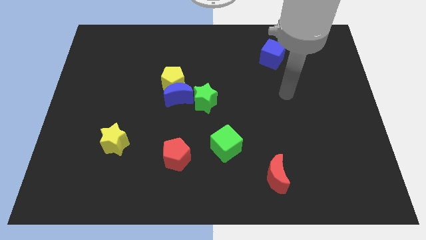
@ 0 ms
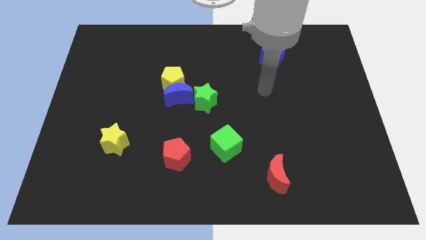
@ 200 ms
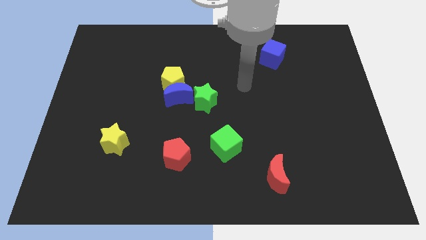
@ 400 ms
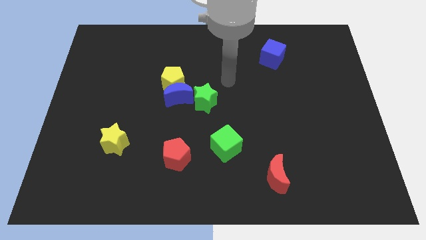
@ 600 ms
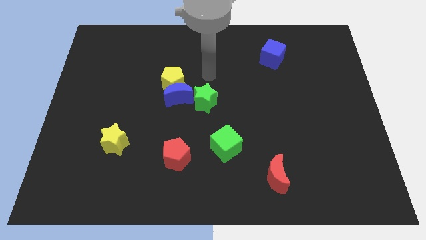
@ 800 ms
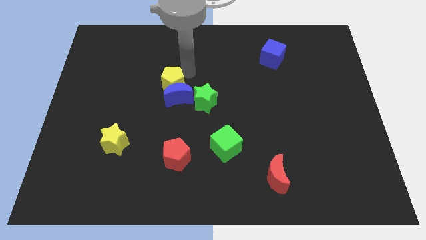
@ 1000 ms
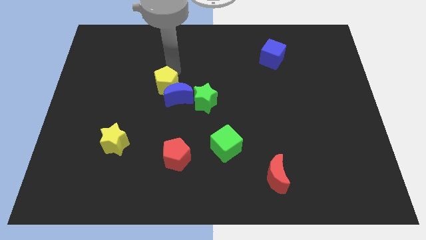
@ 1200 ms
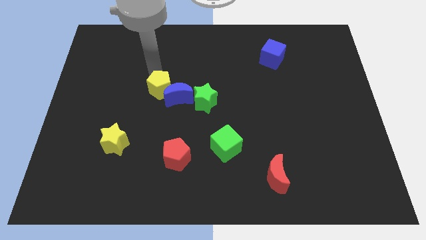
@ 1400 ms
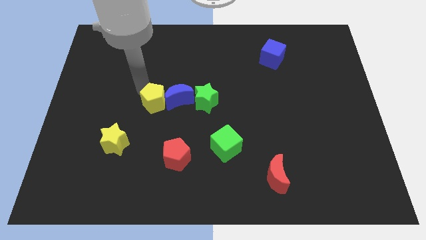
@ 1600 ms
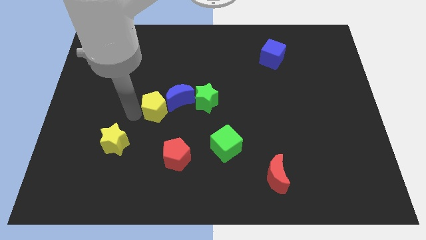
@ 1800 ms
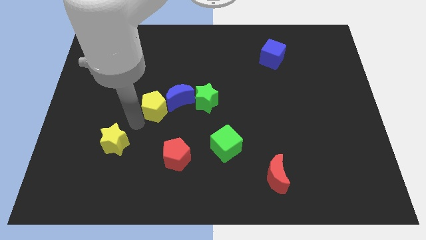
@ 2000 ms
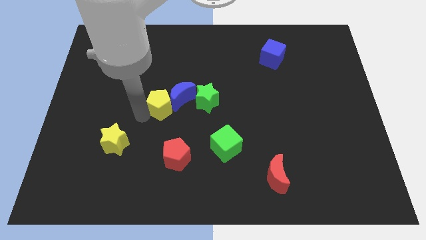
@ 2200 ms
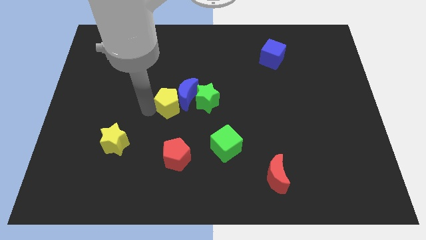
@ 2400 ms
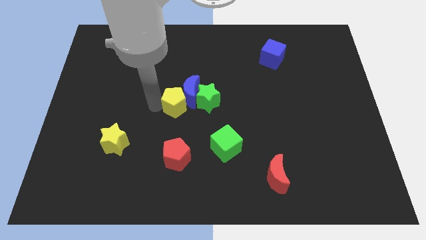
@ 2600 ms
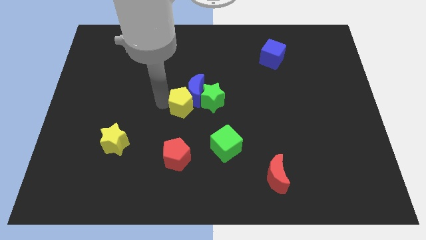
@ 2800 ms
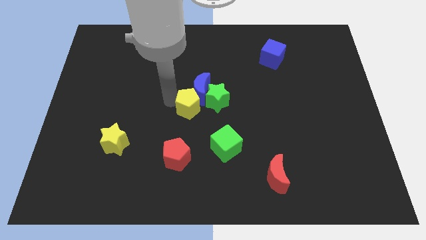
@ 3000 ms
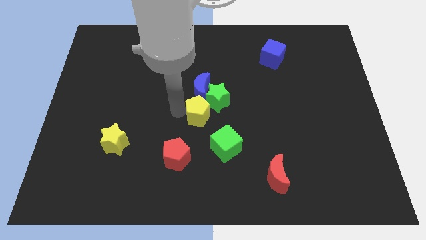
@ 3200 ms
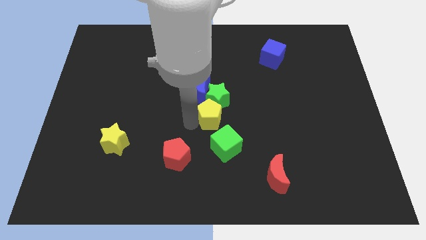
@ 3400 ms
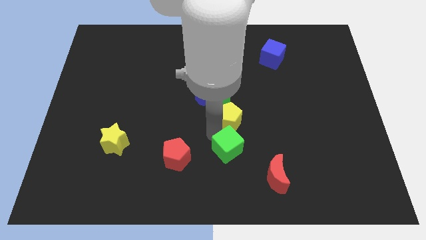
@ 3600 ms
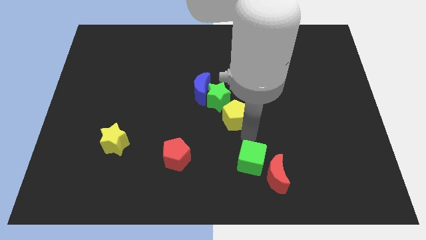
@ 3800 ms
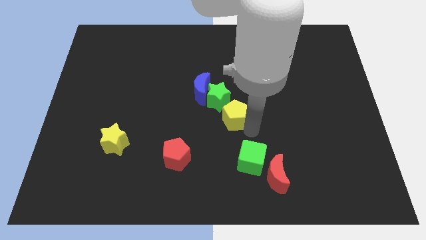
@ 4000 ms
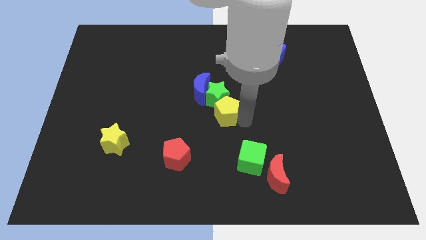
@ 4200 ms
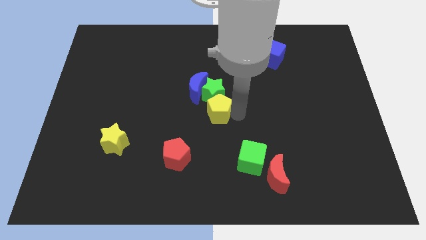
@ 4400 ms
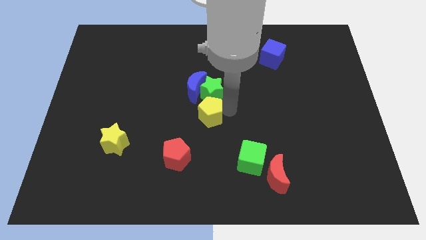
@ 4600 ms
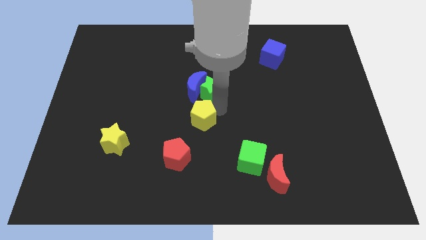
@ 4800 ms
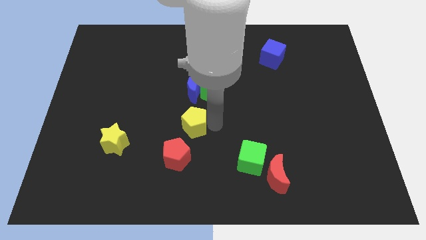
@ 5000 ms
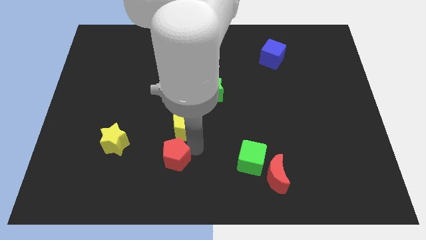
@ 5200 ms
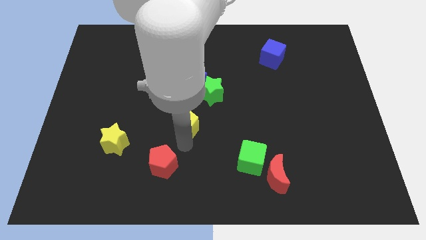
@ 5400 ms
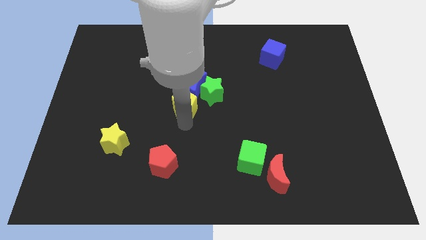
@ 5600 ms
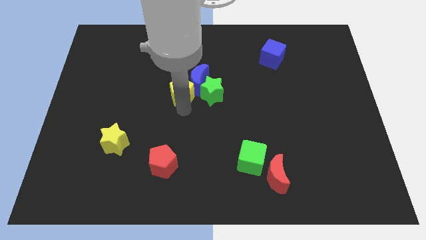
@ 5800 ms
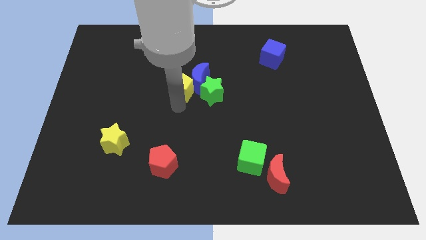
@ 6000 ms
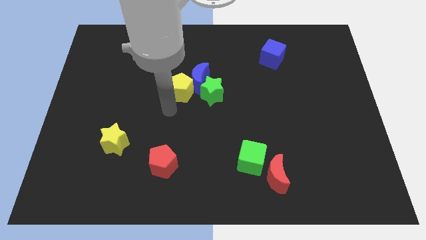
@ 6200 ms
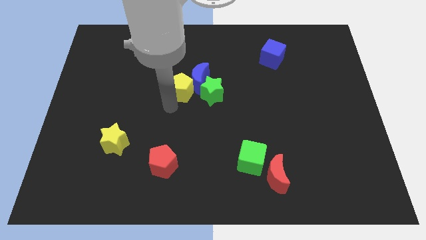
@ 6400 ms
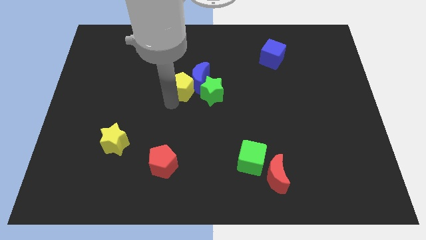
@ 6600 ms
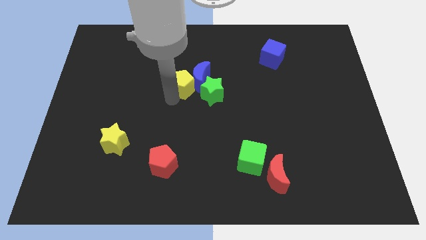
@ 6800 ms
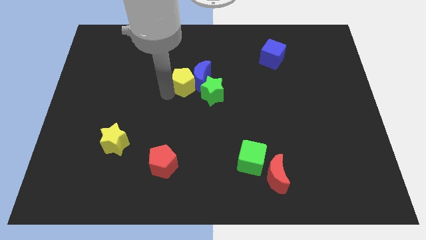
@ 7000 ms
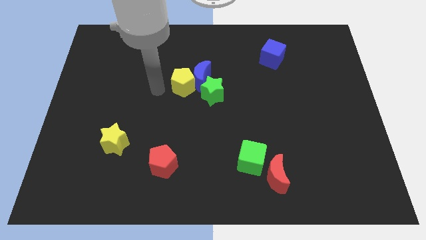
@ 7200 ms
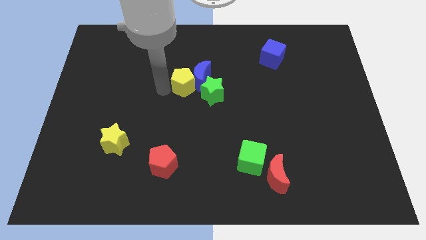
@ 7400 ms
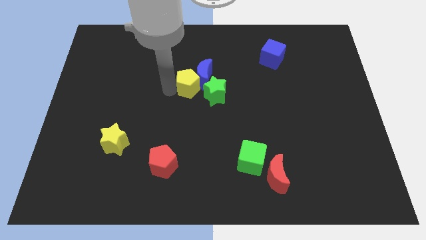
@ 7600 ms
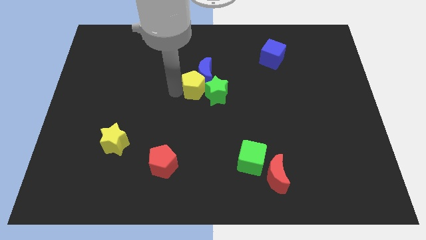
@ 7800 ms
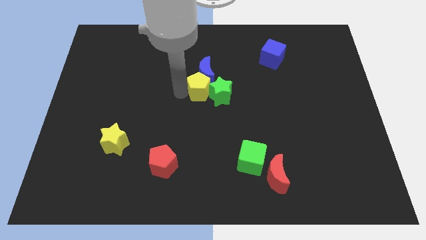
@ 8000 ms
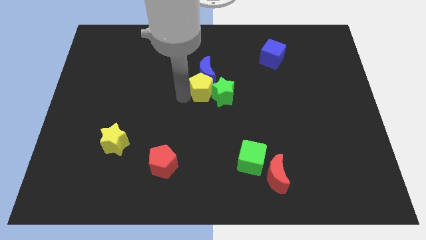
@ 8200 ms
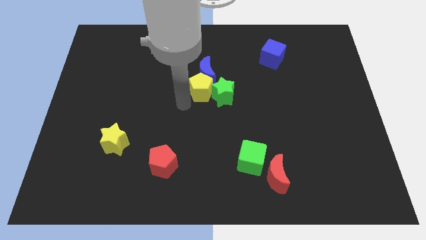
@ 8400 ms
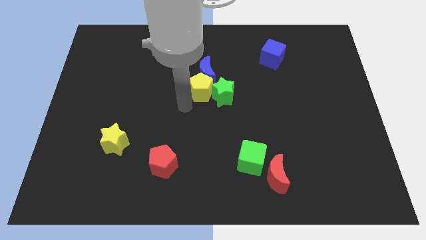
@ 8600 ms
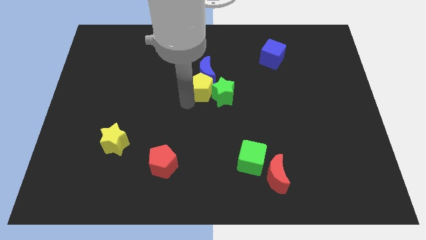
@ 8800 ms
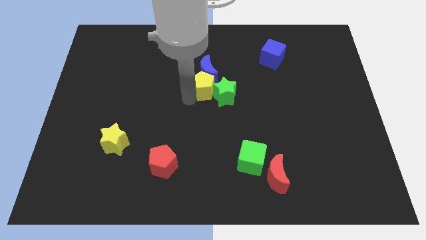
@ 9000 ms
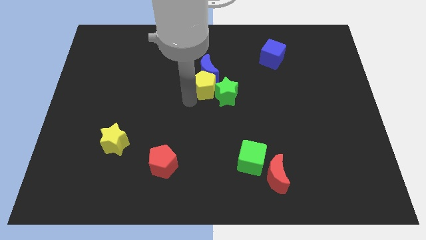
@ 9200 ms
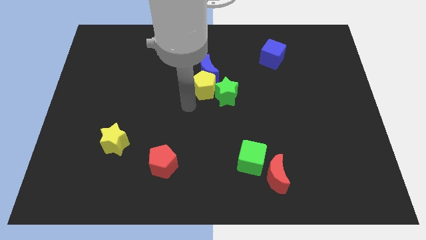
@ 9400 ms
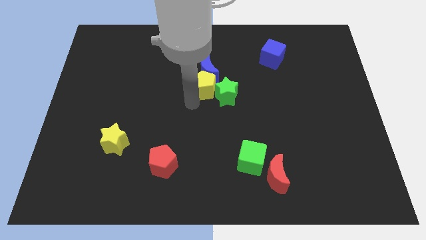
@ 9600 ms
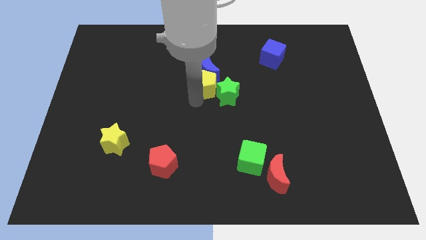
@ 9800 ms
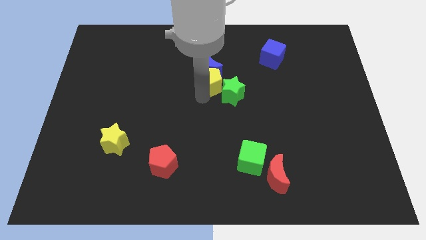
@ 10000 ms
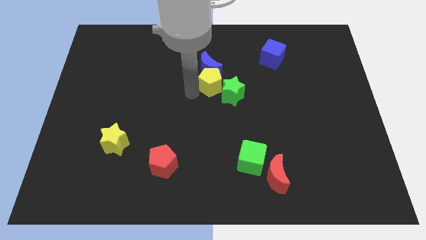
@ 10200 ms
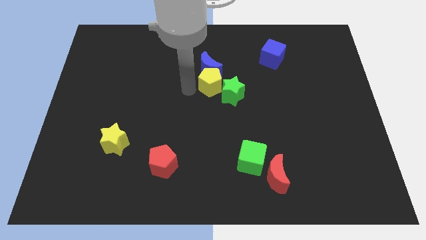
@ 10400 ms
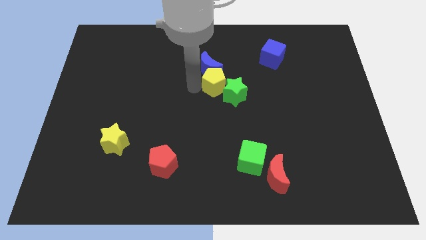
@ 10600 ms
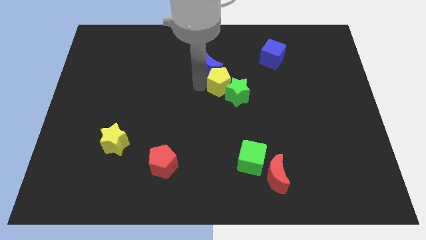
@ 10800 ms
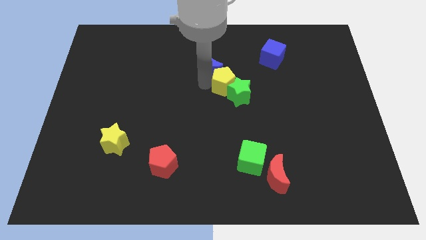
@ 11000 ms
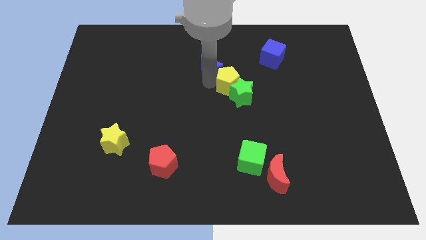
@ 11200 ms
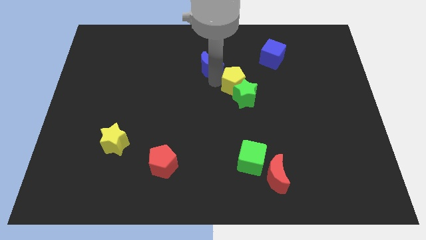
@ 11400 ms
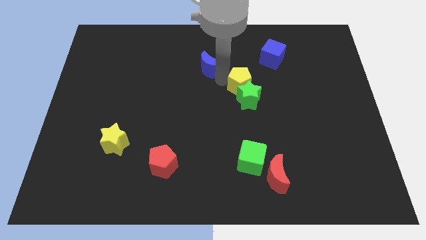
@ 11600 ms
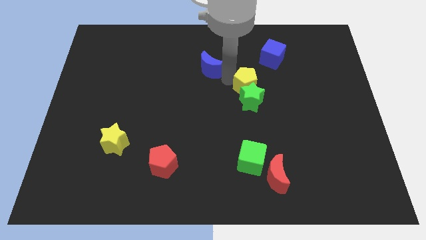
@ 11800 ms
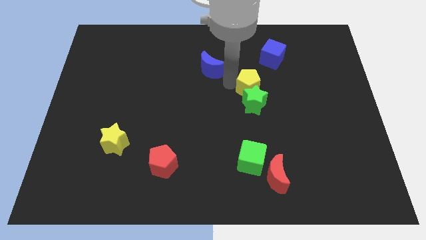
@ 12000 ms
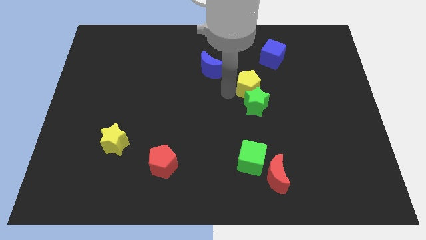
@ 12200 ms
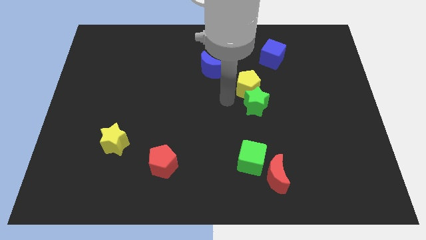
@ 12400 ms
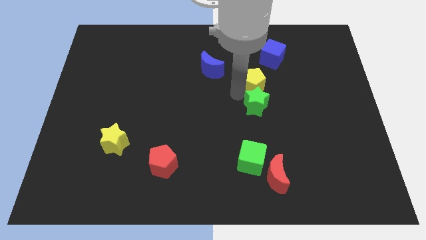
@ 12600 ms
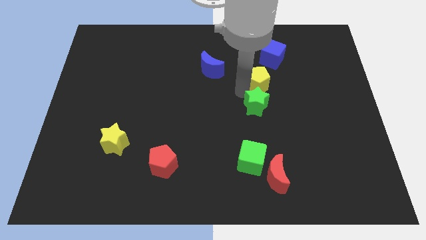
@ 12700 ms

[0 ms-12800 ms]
slide the yellow pentagon right

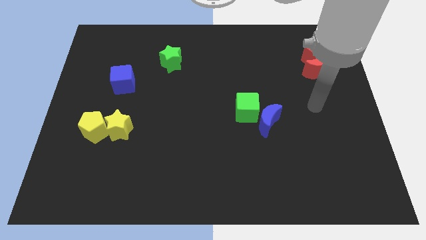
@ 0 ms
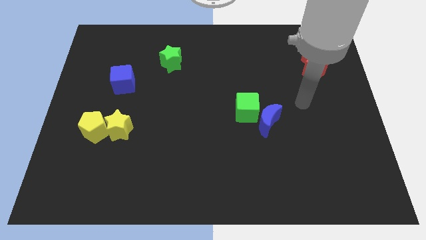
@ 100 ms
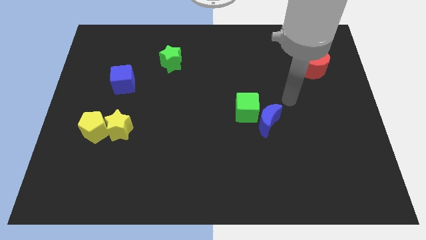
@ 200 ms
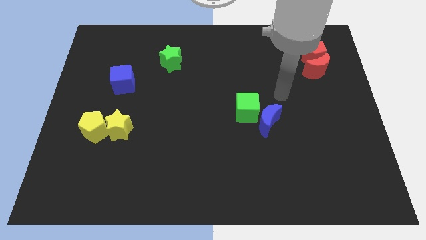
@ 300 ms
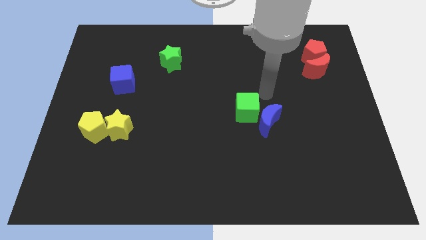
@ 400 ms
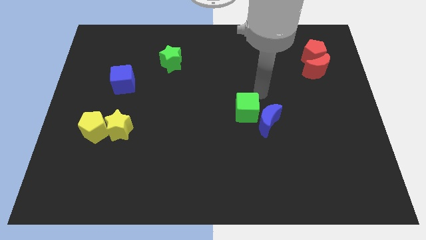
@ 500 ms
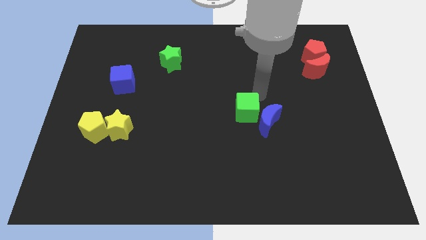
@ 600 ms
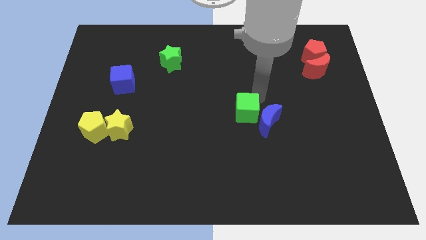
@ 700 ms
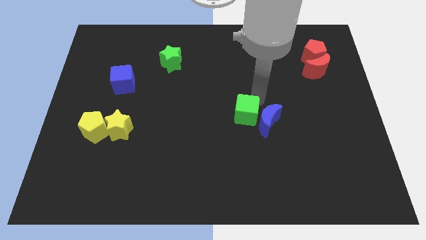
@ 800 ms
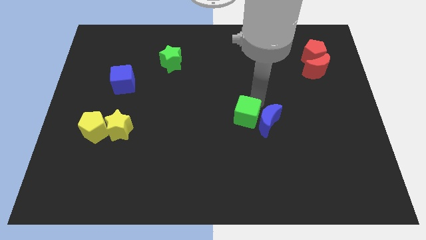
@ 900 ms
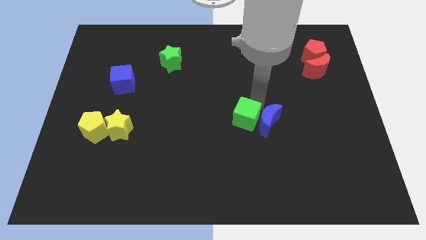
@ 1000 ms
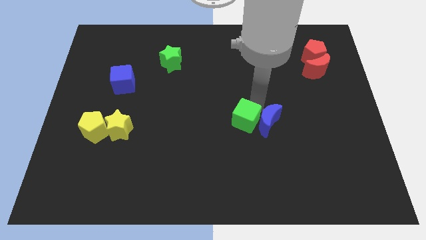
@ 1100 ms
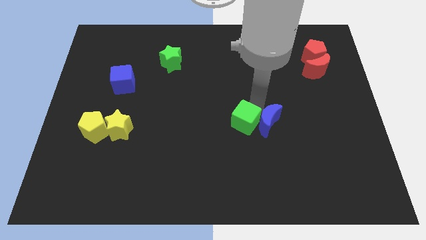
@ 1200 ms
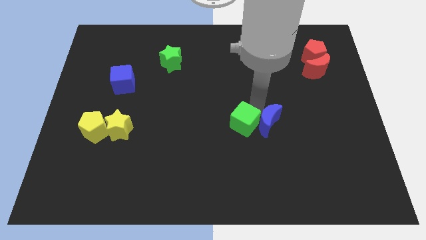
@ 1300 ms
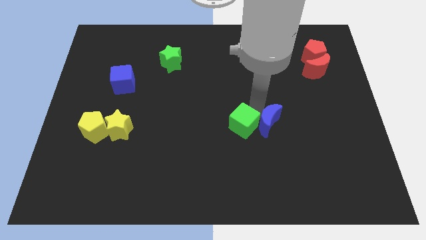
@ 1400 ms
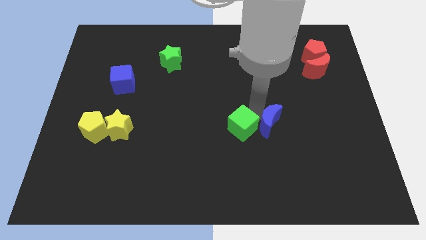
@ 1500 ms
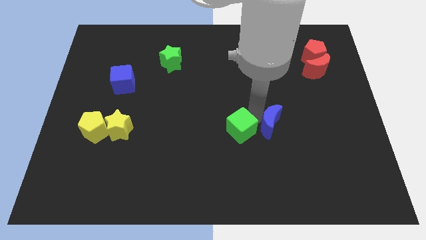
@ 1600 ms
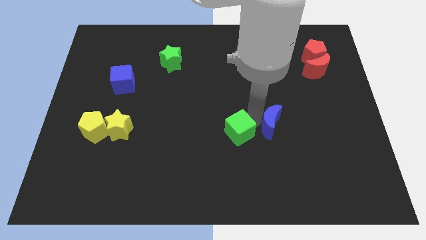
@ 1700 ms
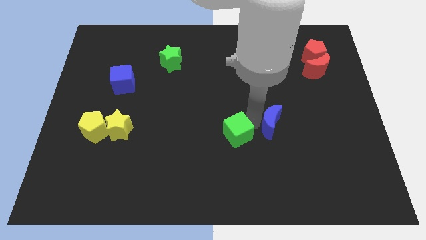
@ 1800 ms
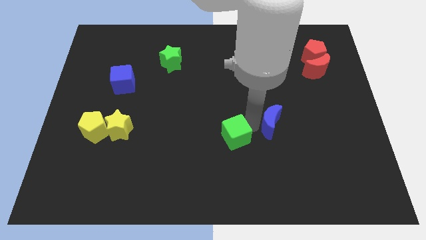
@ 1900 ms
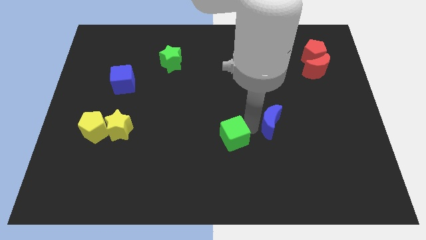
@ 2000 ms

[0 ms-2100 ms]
slightly push the green cube down and left diagonally

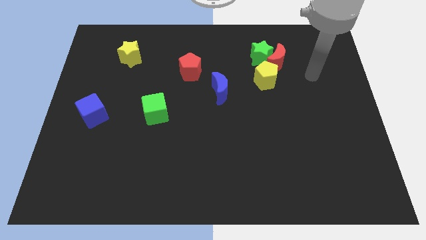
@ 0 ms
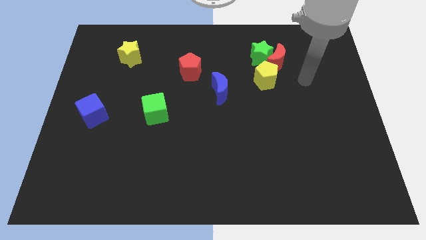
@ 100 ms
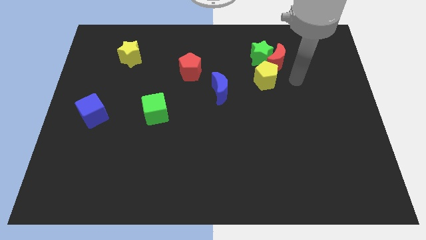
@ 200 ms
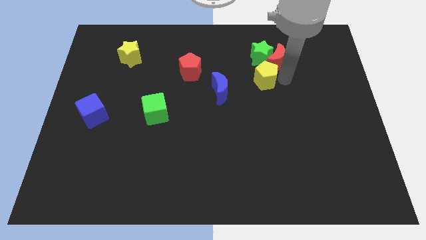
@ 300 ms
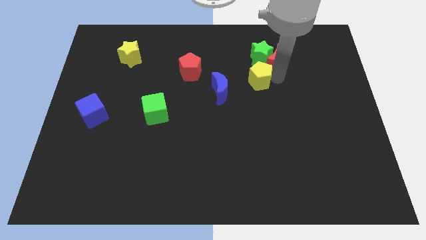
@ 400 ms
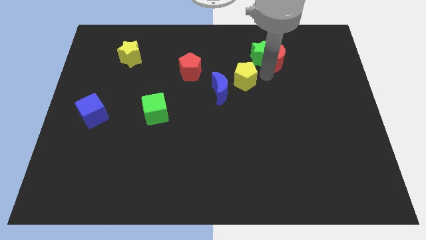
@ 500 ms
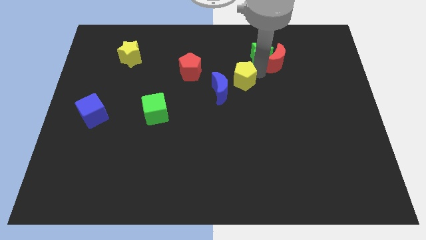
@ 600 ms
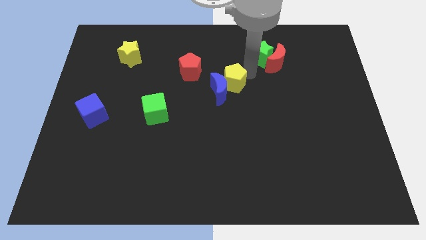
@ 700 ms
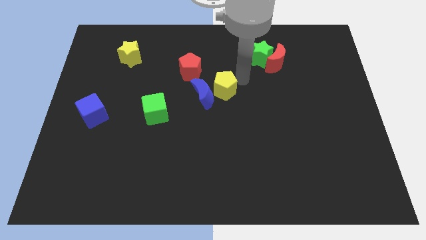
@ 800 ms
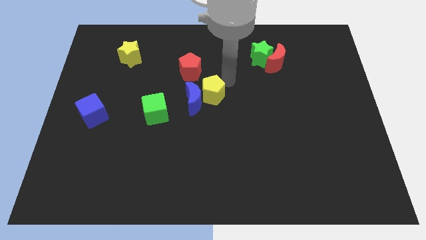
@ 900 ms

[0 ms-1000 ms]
move the blue moon down and left diagonally a little
